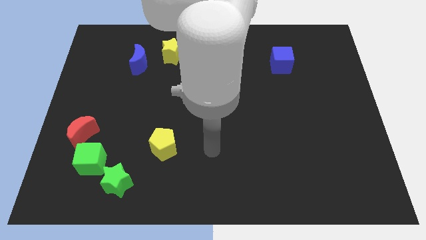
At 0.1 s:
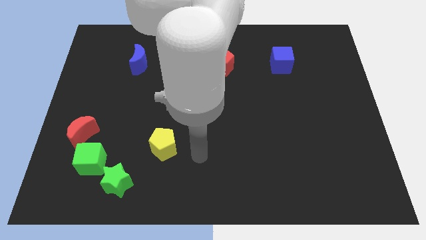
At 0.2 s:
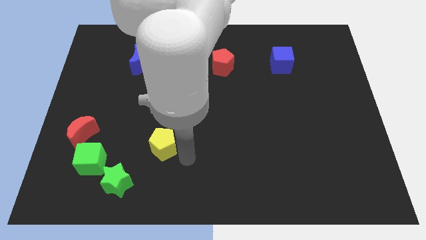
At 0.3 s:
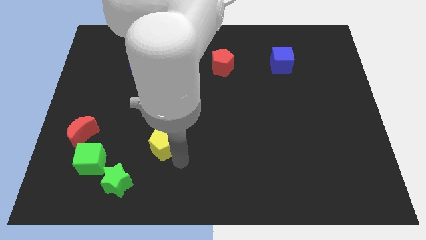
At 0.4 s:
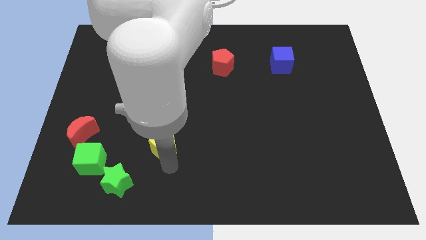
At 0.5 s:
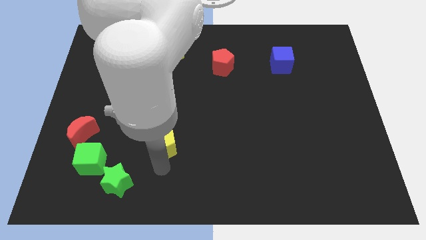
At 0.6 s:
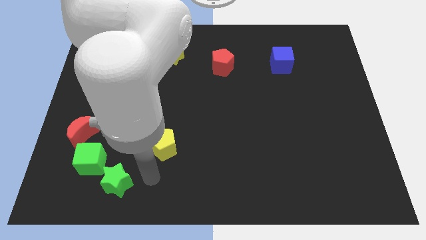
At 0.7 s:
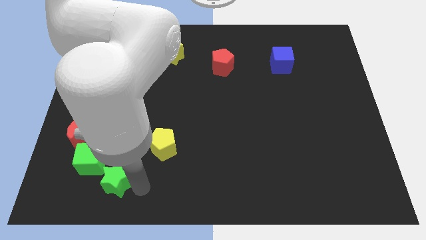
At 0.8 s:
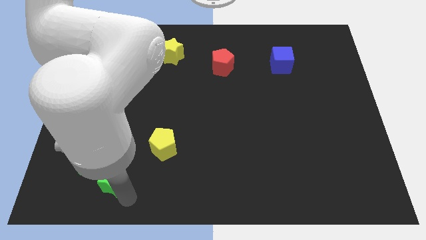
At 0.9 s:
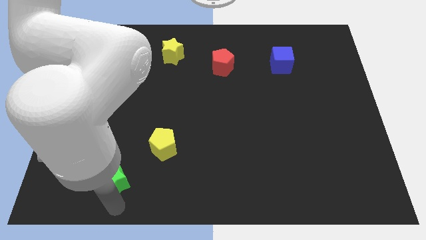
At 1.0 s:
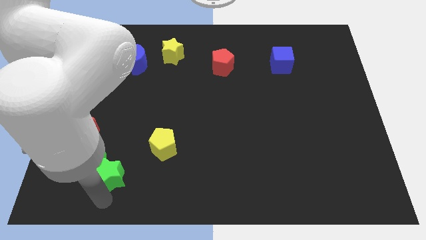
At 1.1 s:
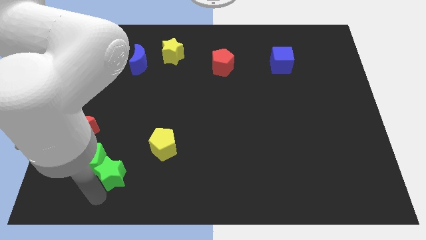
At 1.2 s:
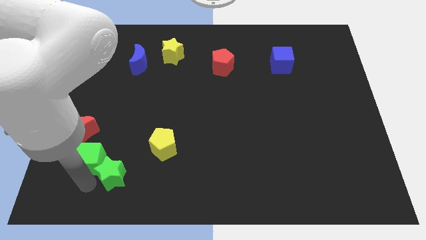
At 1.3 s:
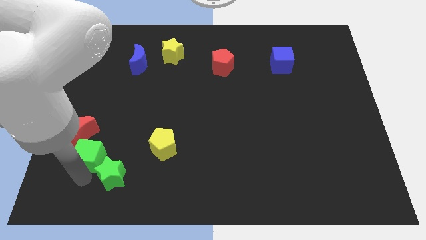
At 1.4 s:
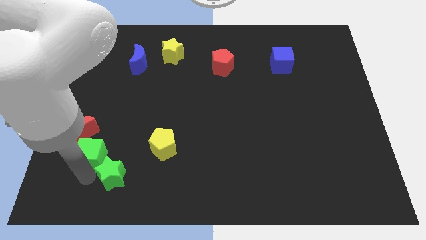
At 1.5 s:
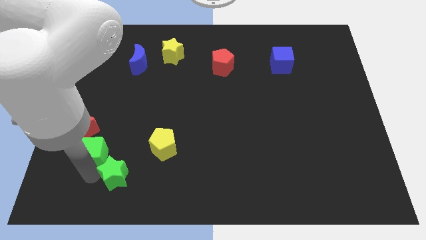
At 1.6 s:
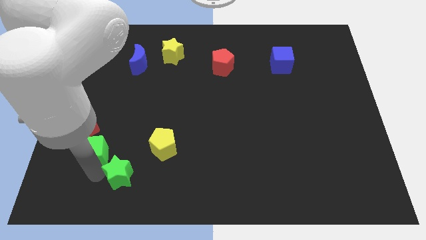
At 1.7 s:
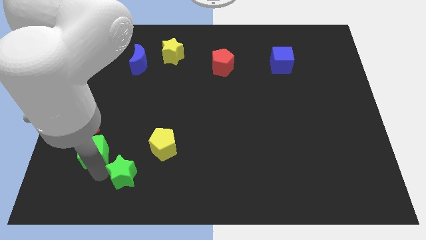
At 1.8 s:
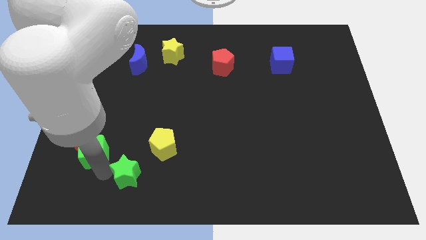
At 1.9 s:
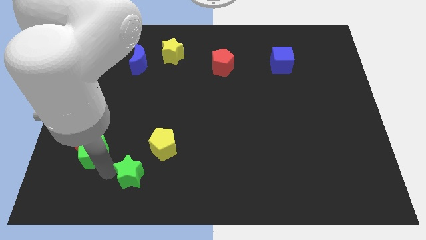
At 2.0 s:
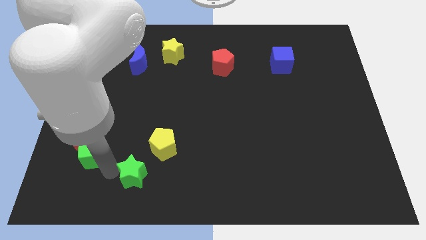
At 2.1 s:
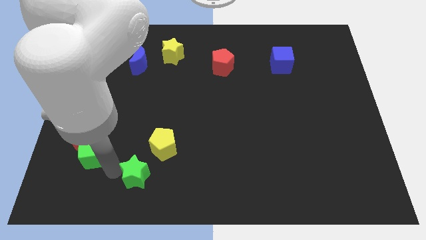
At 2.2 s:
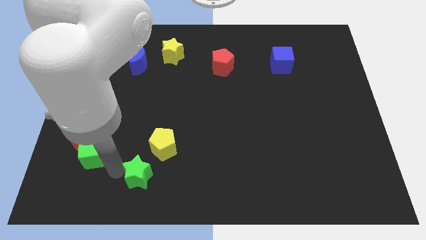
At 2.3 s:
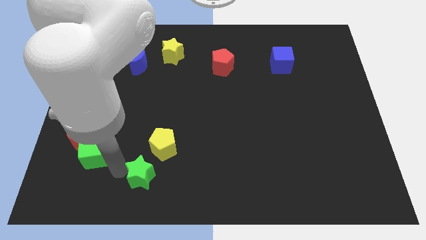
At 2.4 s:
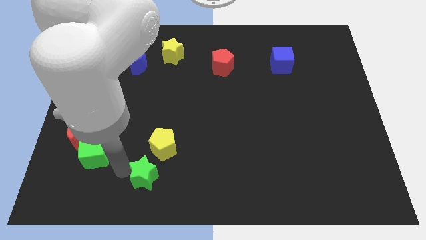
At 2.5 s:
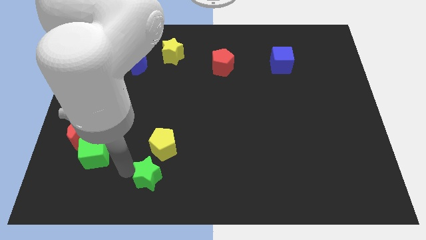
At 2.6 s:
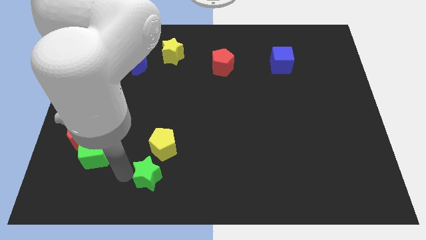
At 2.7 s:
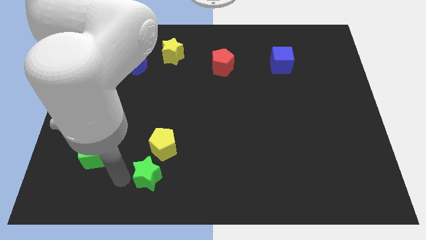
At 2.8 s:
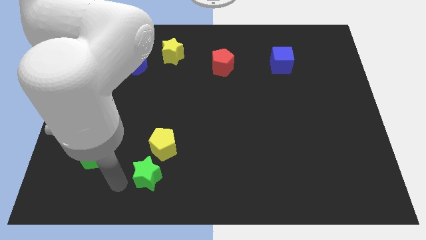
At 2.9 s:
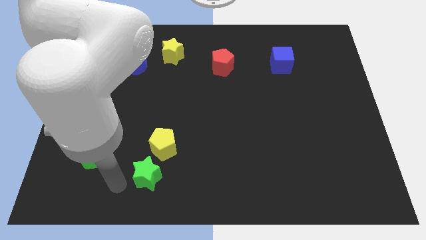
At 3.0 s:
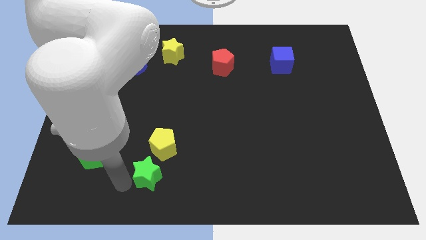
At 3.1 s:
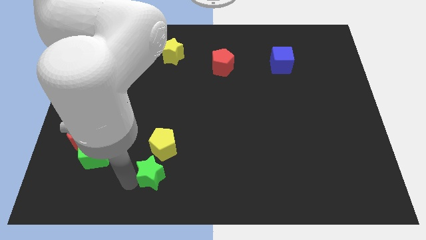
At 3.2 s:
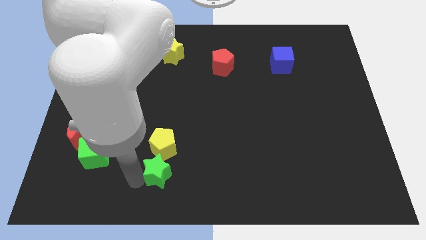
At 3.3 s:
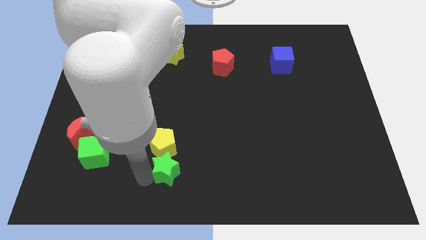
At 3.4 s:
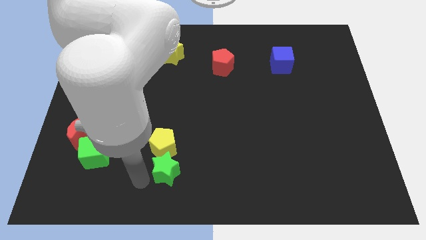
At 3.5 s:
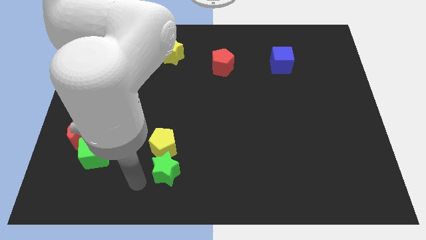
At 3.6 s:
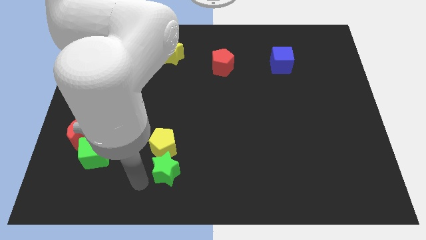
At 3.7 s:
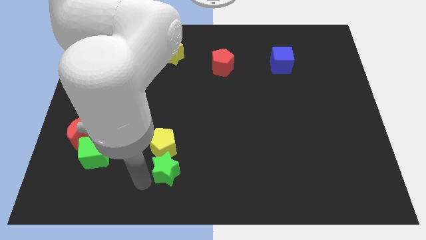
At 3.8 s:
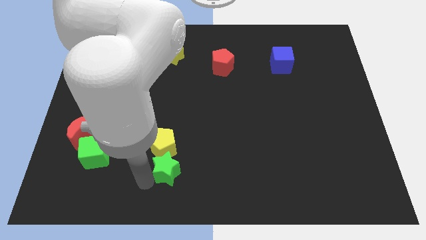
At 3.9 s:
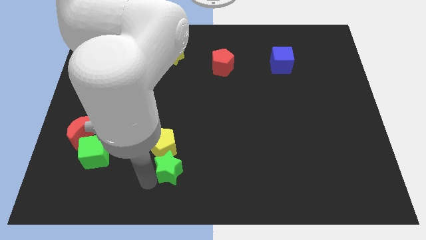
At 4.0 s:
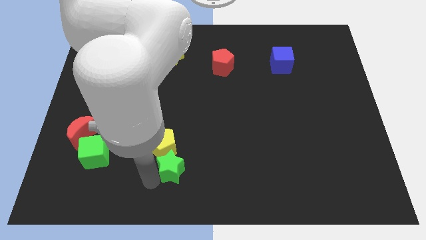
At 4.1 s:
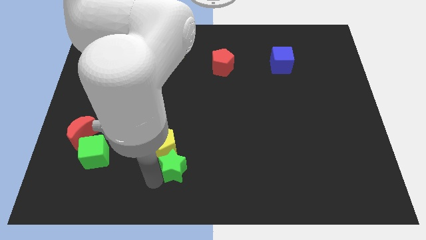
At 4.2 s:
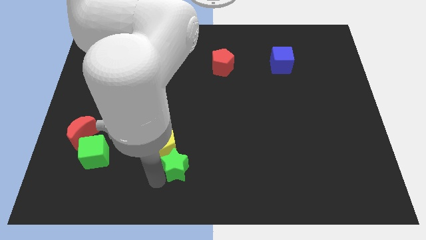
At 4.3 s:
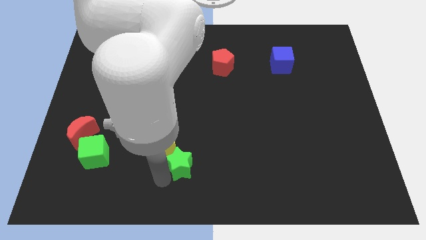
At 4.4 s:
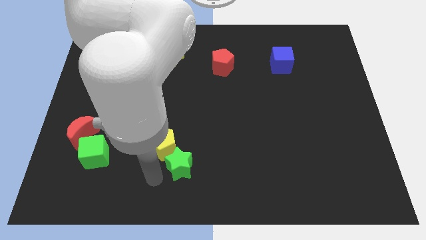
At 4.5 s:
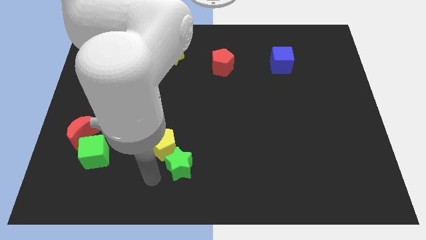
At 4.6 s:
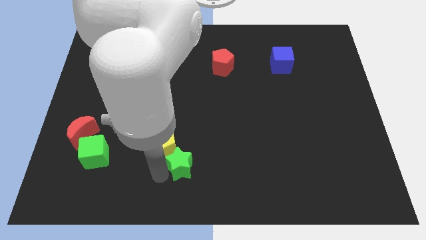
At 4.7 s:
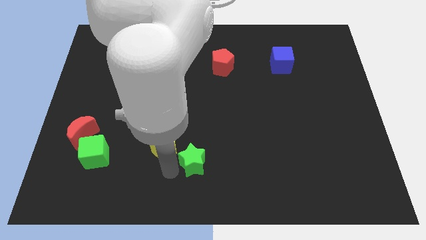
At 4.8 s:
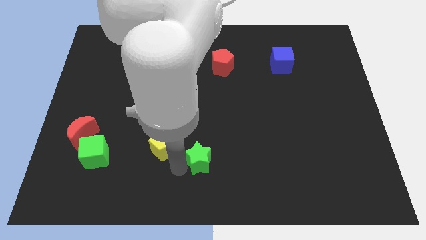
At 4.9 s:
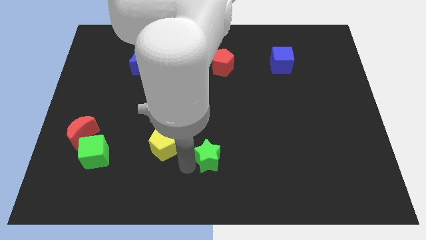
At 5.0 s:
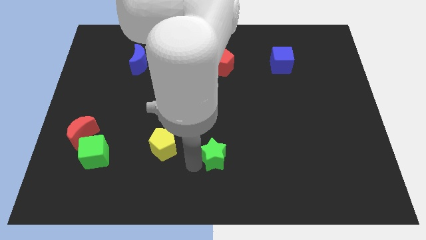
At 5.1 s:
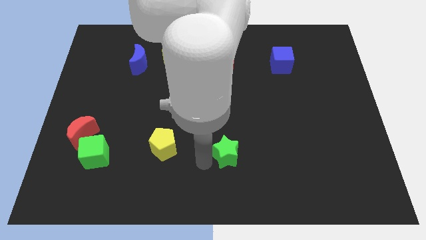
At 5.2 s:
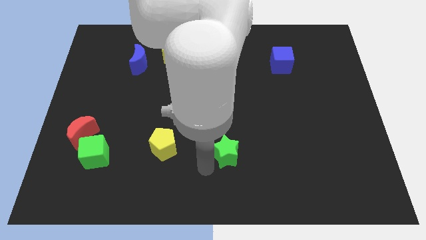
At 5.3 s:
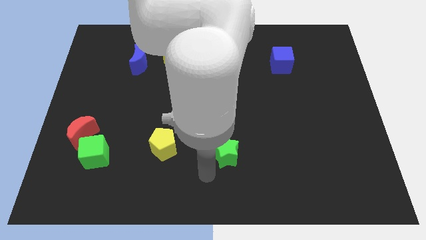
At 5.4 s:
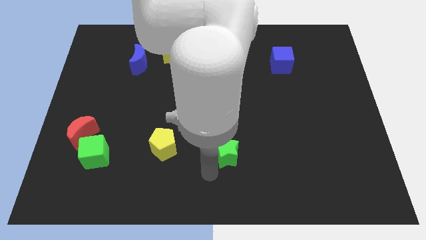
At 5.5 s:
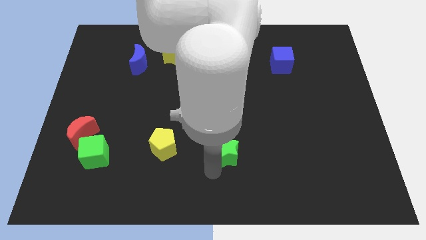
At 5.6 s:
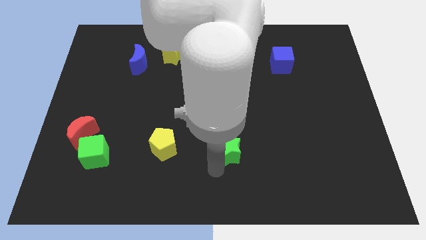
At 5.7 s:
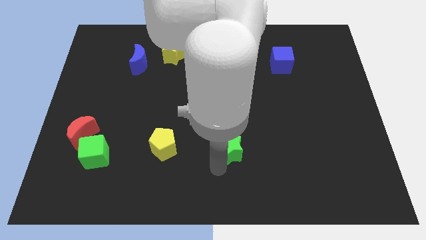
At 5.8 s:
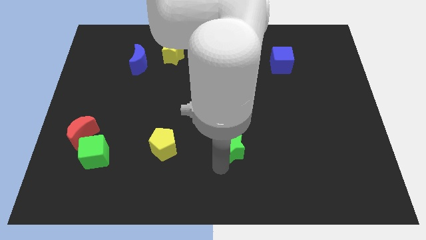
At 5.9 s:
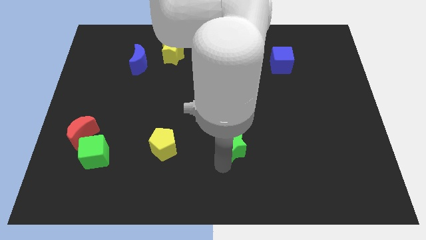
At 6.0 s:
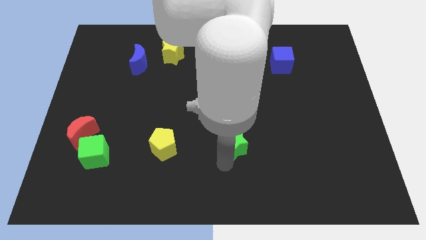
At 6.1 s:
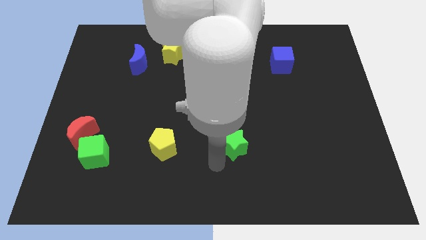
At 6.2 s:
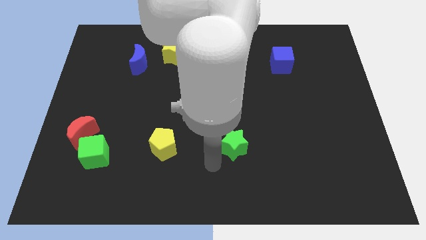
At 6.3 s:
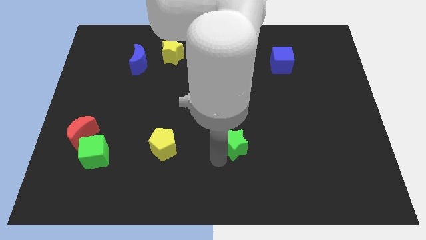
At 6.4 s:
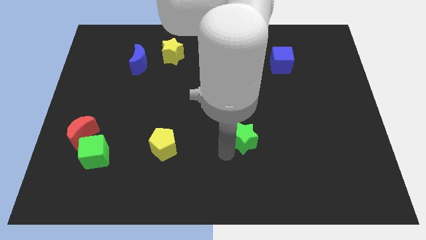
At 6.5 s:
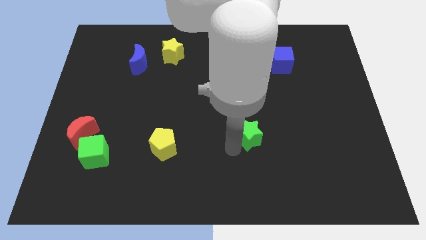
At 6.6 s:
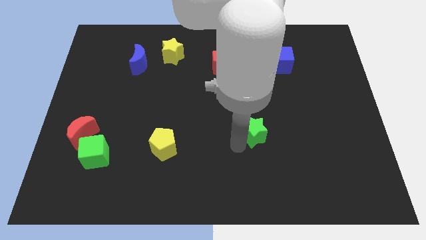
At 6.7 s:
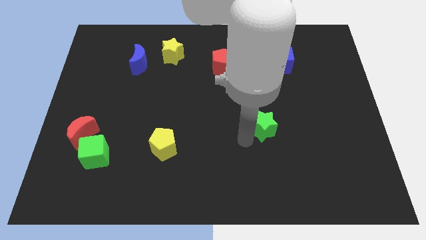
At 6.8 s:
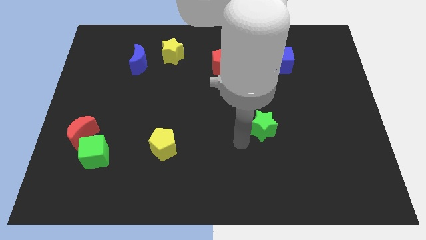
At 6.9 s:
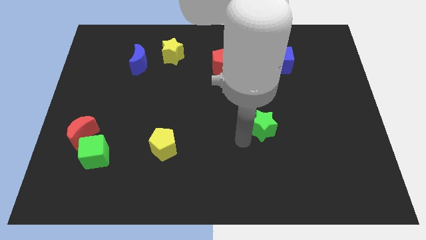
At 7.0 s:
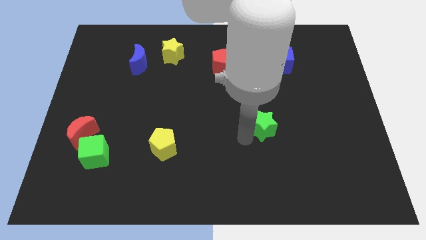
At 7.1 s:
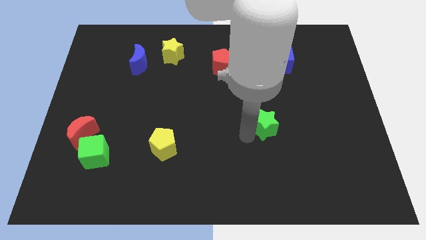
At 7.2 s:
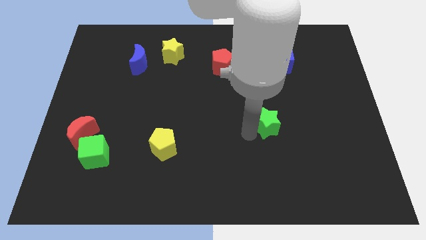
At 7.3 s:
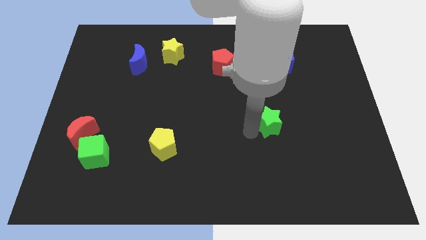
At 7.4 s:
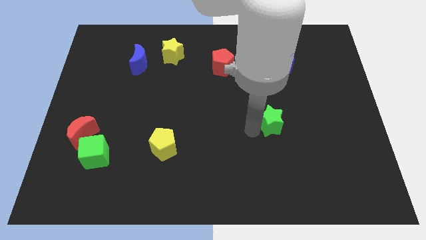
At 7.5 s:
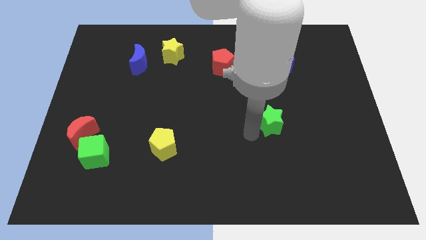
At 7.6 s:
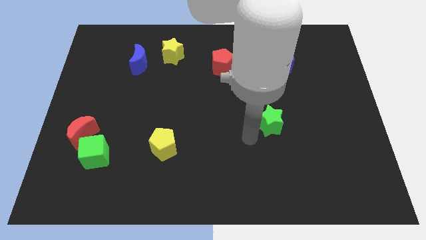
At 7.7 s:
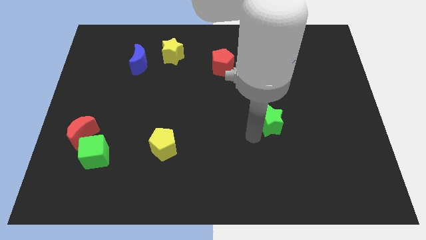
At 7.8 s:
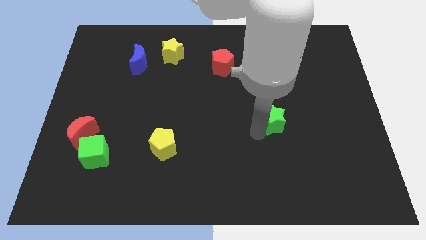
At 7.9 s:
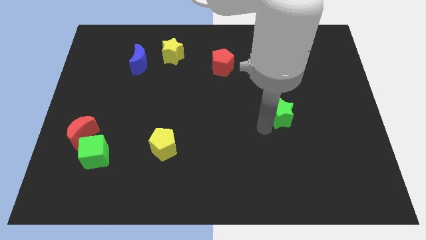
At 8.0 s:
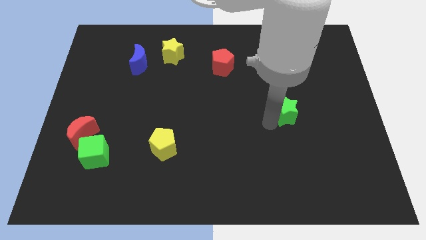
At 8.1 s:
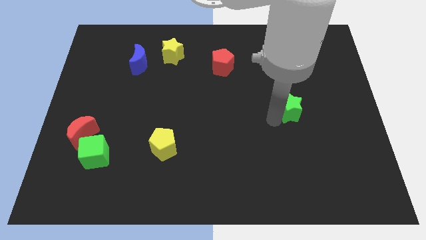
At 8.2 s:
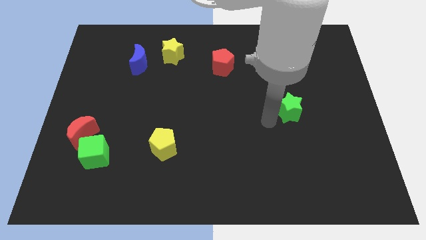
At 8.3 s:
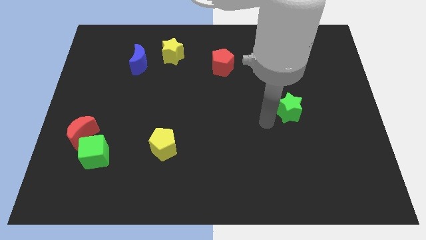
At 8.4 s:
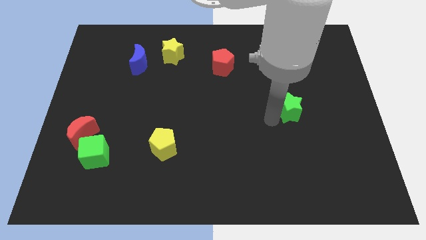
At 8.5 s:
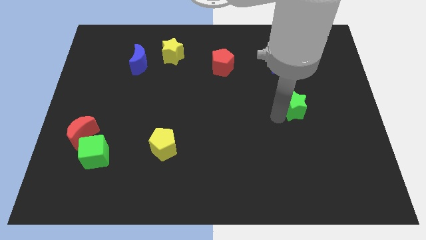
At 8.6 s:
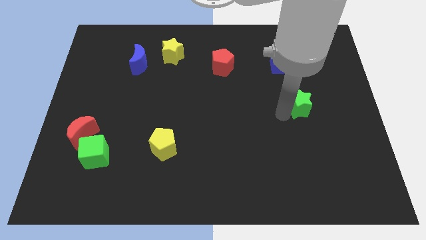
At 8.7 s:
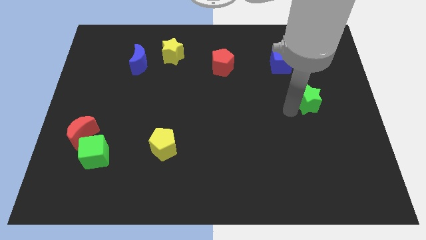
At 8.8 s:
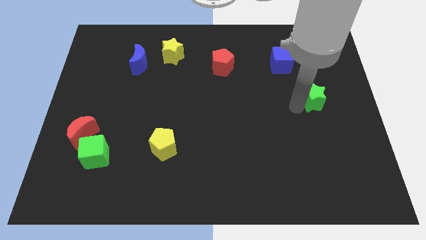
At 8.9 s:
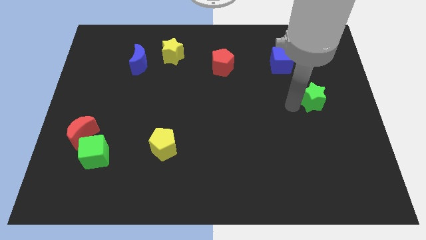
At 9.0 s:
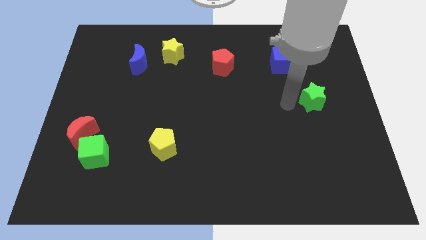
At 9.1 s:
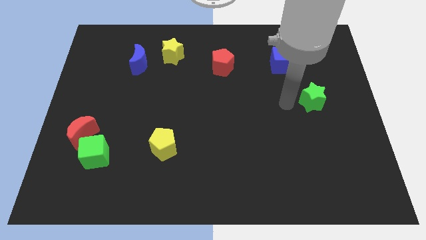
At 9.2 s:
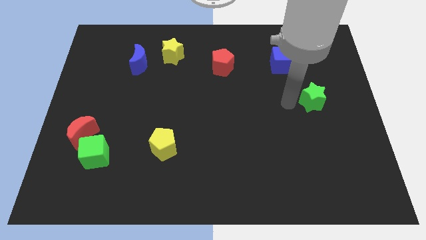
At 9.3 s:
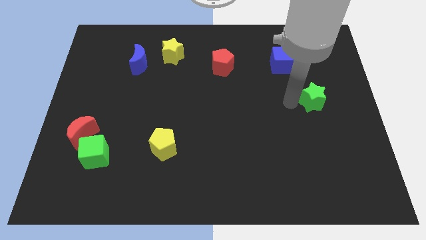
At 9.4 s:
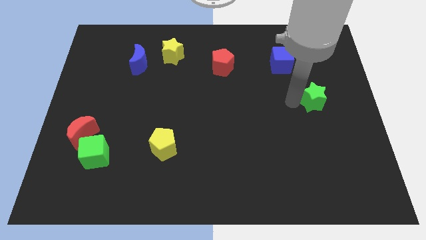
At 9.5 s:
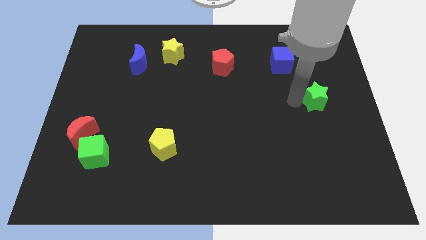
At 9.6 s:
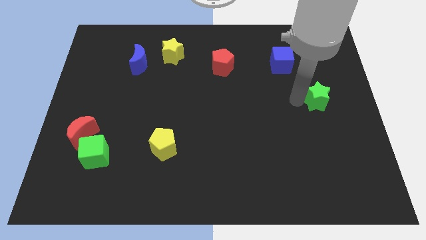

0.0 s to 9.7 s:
slide the green star to the right side of the board
